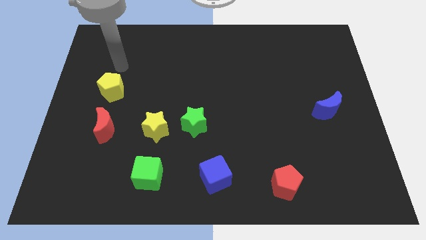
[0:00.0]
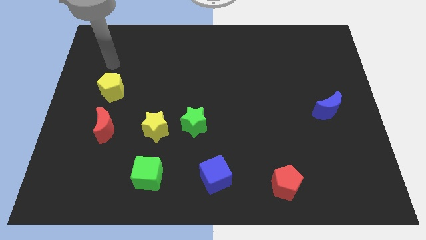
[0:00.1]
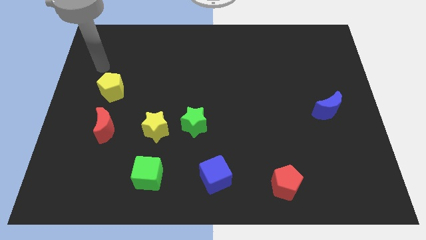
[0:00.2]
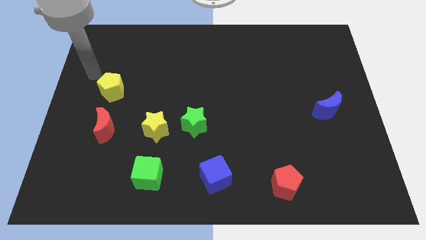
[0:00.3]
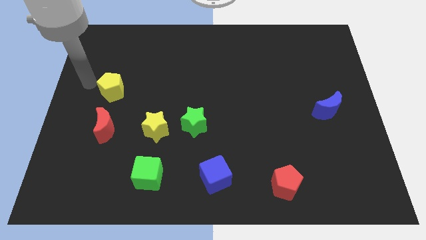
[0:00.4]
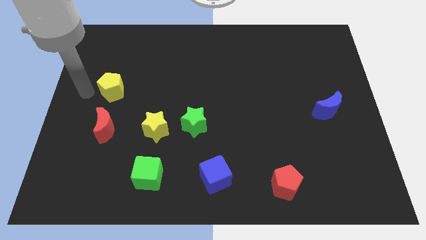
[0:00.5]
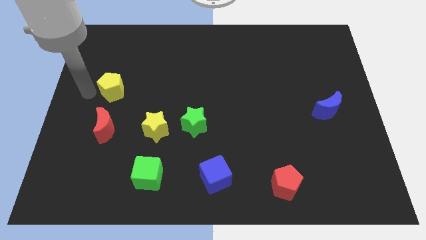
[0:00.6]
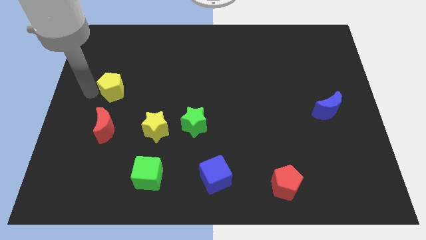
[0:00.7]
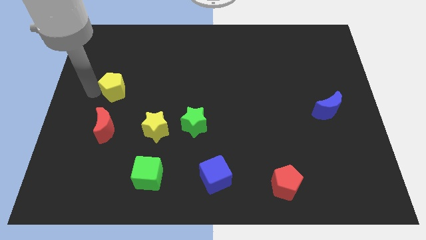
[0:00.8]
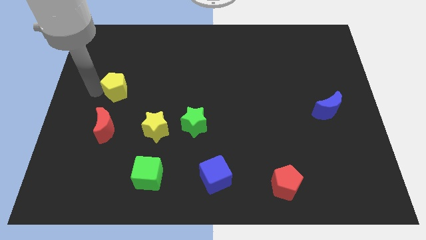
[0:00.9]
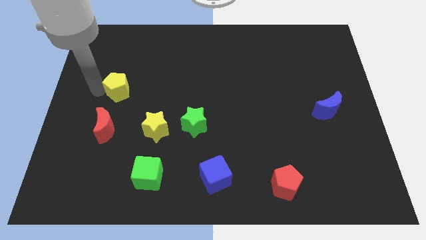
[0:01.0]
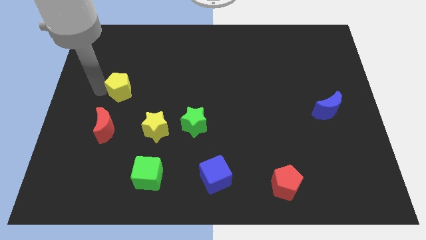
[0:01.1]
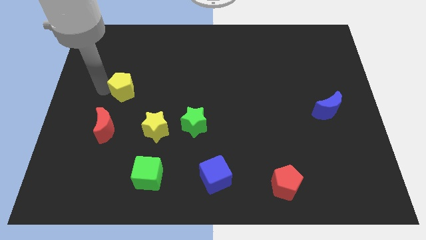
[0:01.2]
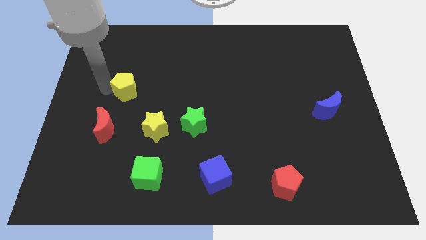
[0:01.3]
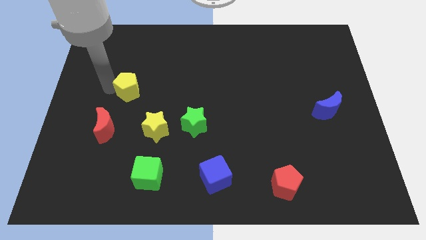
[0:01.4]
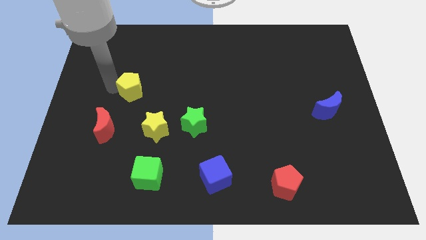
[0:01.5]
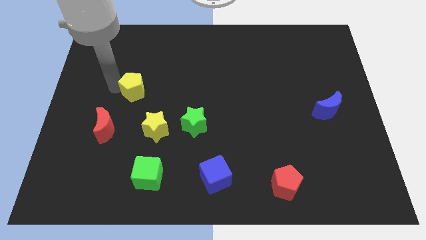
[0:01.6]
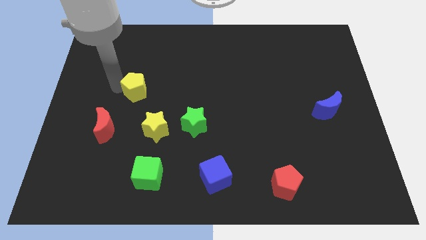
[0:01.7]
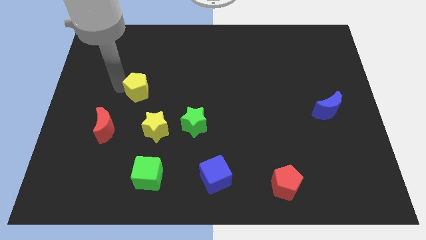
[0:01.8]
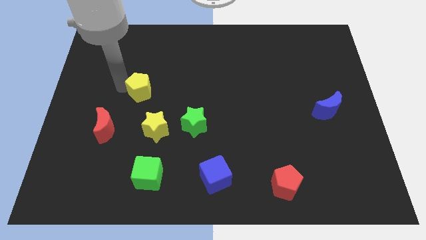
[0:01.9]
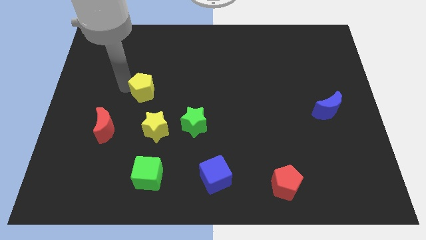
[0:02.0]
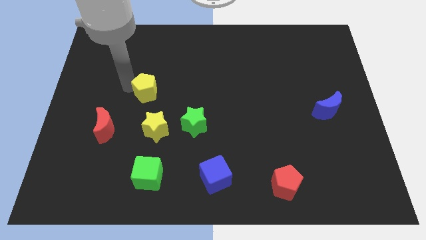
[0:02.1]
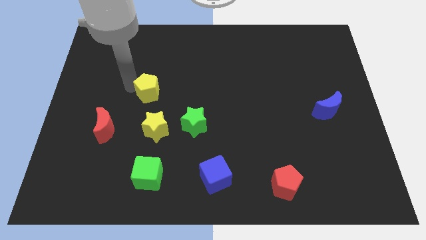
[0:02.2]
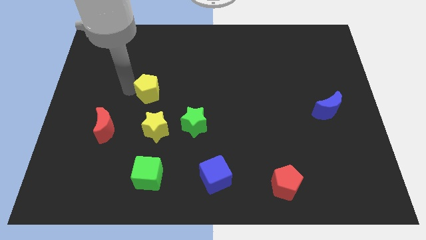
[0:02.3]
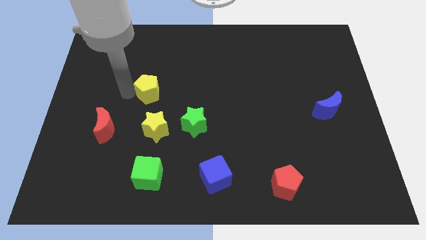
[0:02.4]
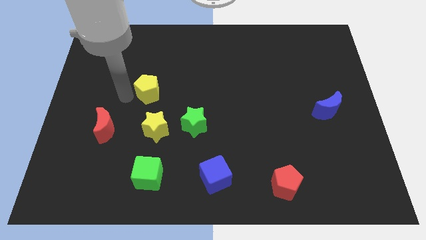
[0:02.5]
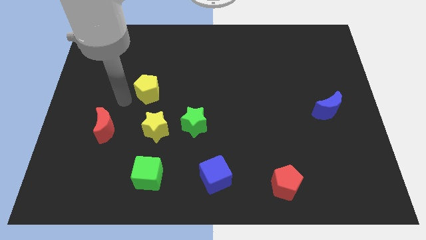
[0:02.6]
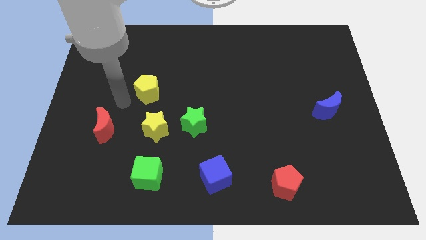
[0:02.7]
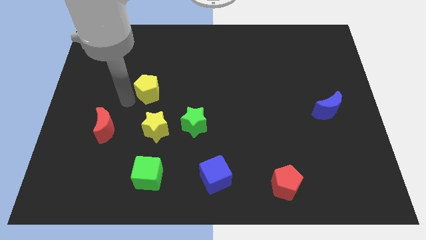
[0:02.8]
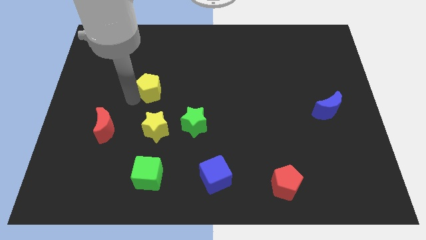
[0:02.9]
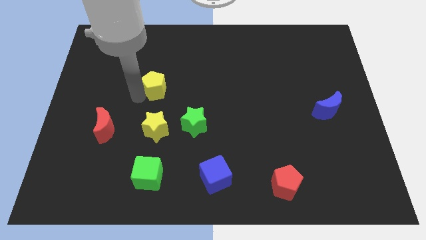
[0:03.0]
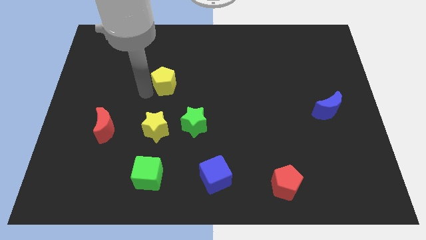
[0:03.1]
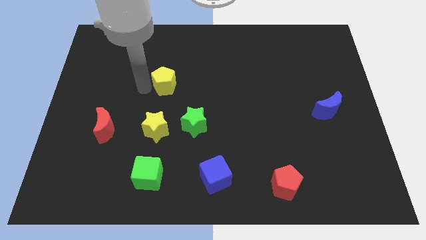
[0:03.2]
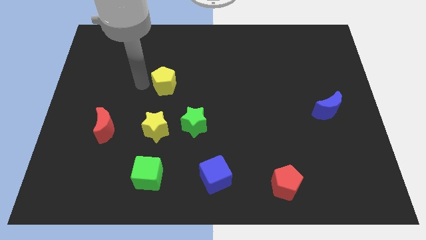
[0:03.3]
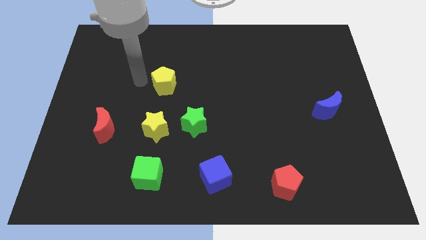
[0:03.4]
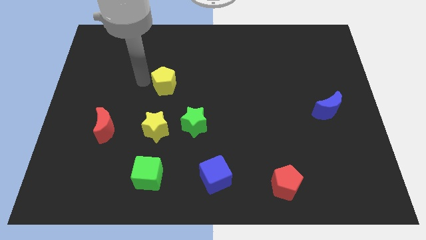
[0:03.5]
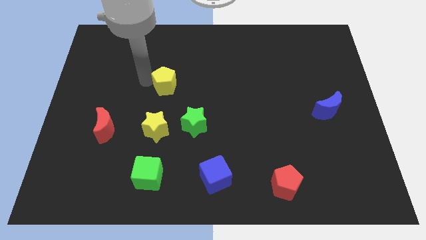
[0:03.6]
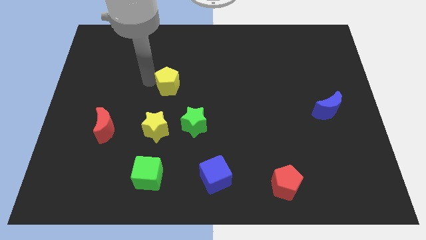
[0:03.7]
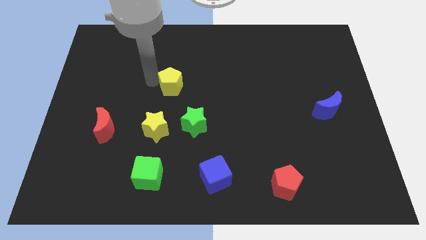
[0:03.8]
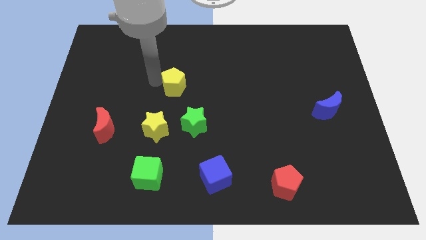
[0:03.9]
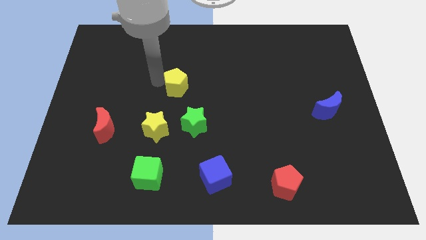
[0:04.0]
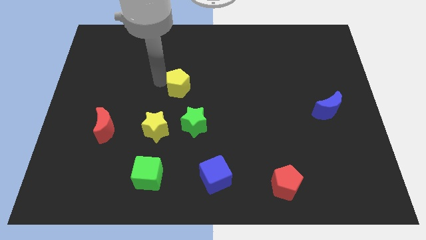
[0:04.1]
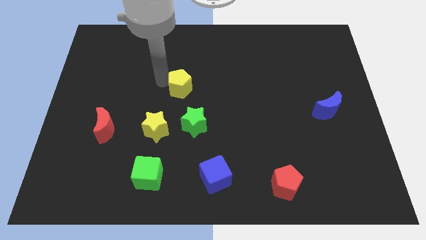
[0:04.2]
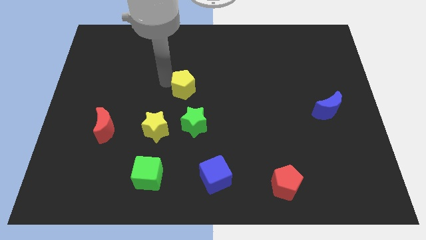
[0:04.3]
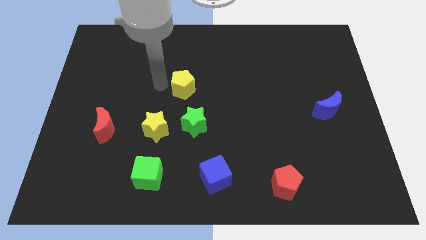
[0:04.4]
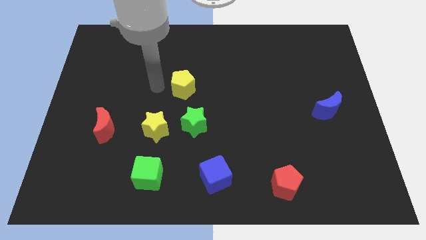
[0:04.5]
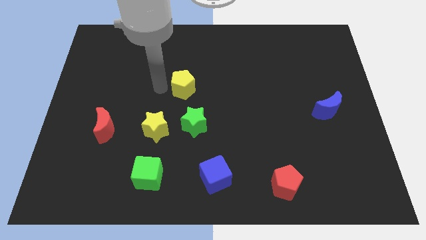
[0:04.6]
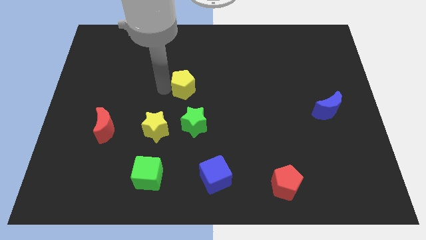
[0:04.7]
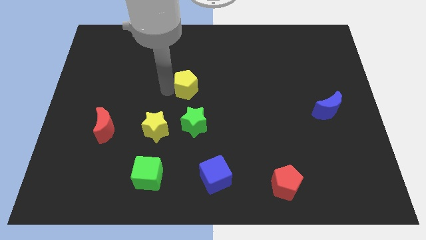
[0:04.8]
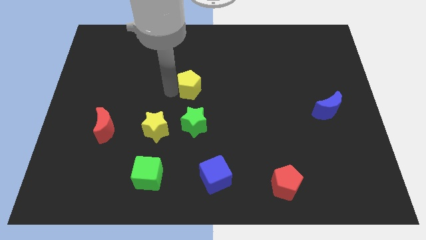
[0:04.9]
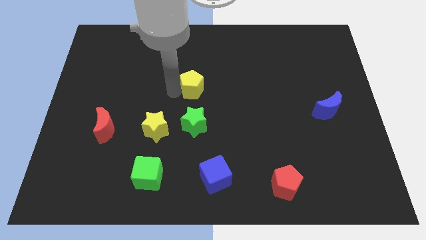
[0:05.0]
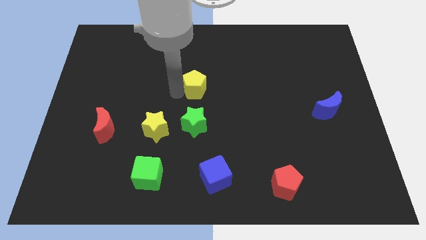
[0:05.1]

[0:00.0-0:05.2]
move the yellow pentagon right

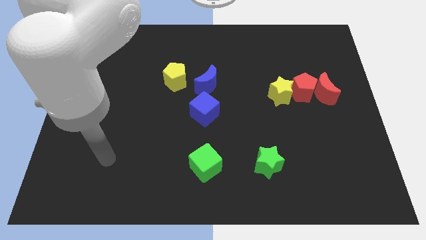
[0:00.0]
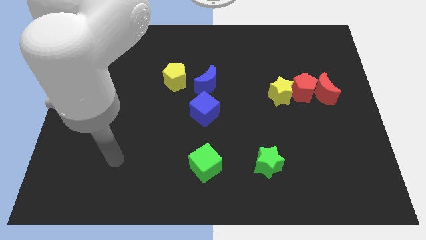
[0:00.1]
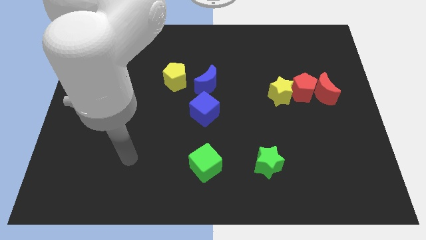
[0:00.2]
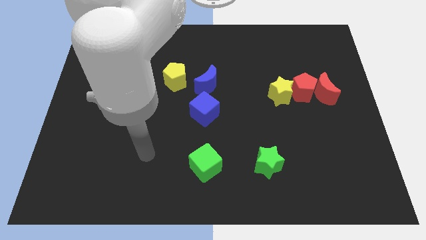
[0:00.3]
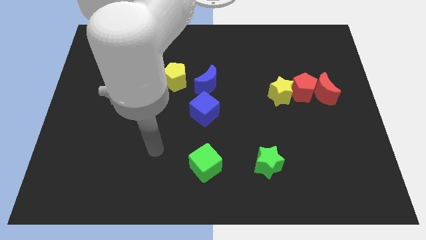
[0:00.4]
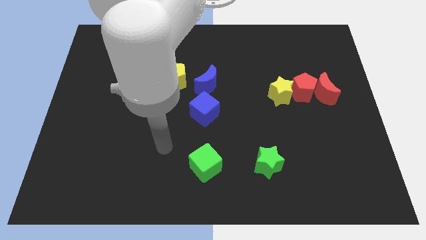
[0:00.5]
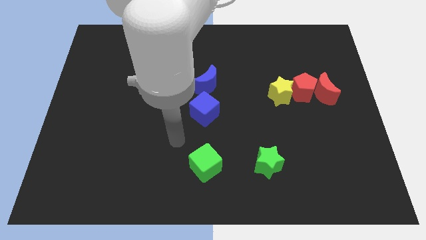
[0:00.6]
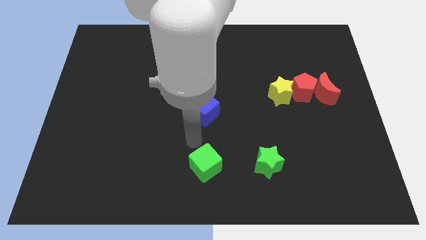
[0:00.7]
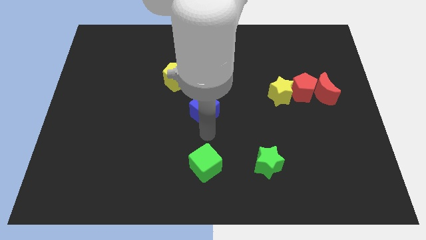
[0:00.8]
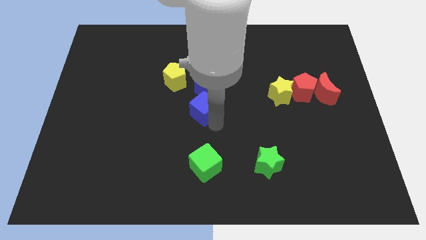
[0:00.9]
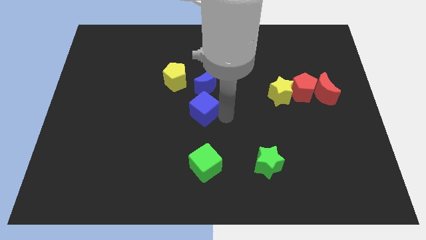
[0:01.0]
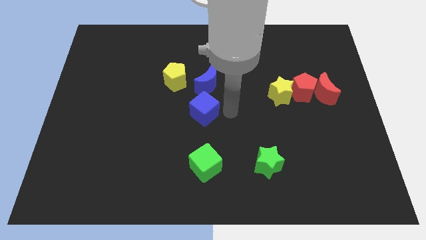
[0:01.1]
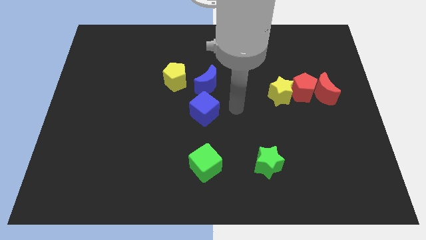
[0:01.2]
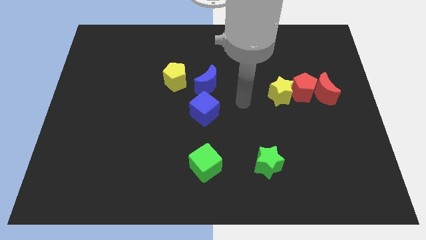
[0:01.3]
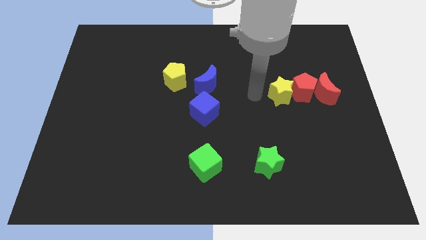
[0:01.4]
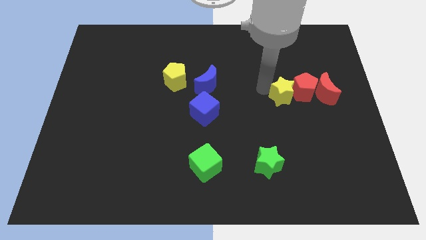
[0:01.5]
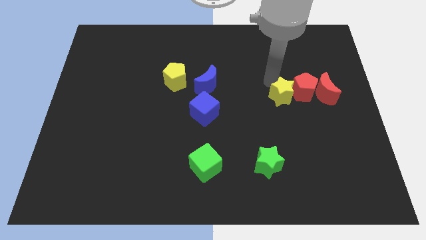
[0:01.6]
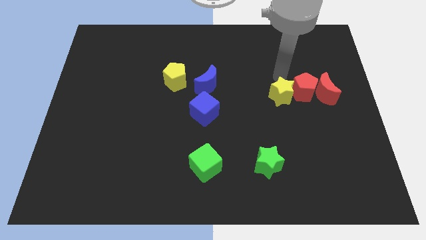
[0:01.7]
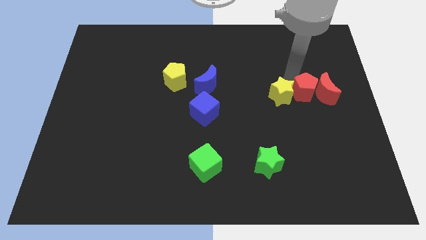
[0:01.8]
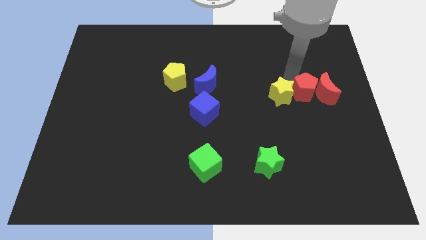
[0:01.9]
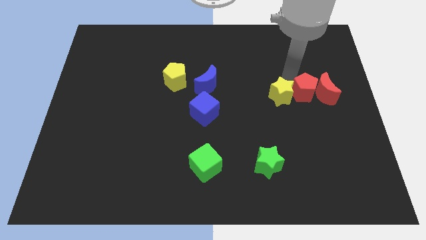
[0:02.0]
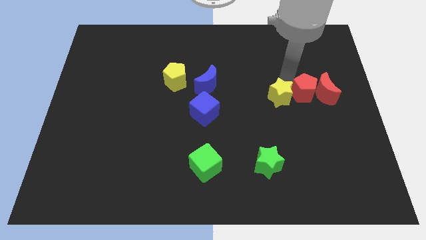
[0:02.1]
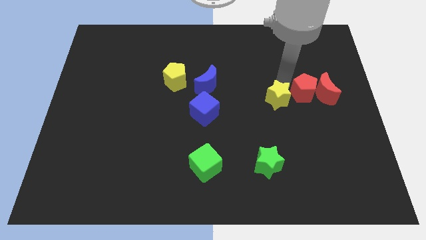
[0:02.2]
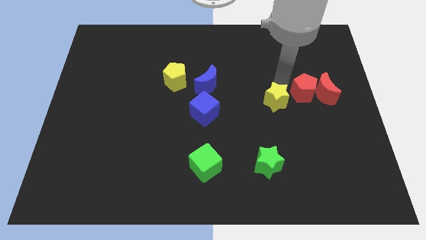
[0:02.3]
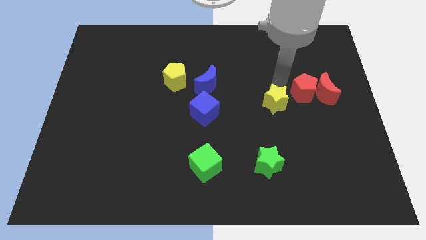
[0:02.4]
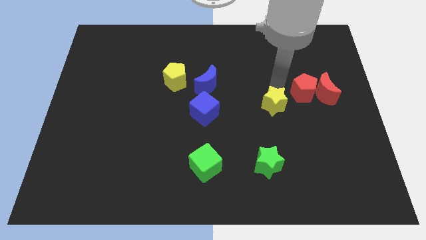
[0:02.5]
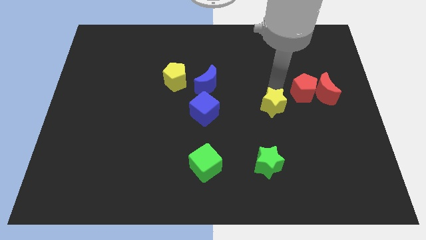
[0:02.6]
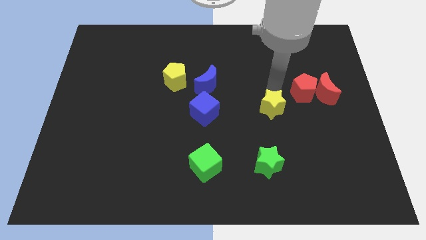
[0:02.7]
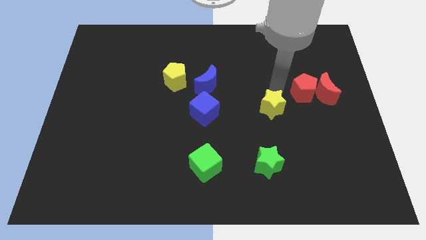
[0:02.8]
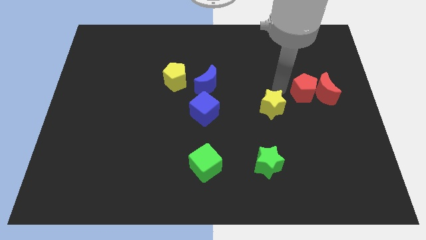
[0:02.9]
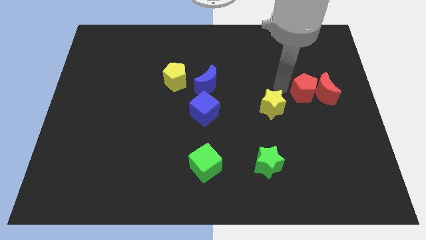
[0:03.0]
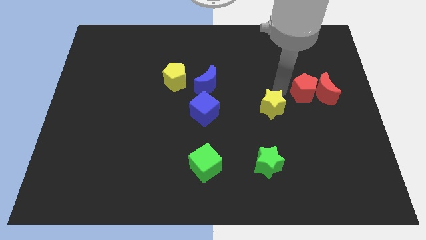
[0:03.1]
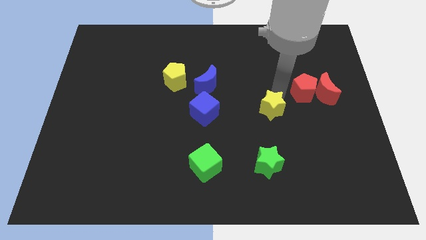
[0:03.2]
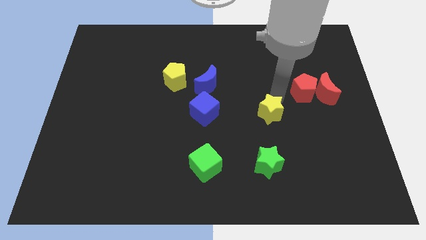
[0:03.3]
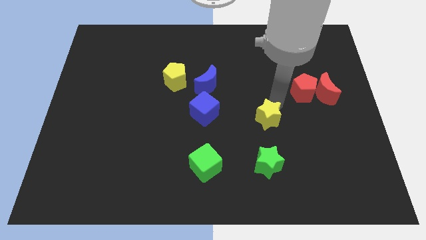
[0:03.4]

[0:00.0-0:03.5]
push the yellow star diagonally down and left a little bit
